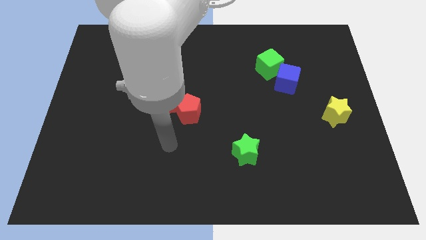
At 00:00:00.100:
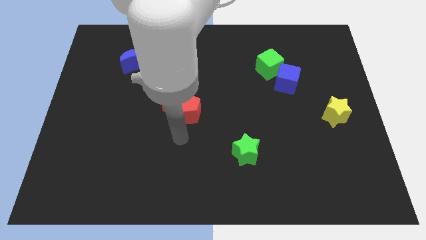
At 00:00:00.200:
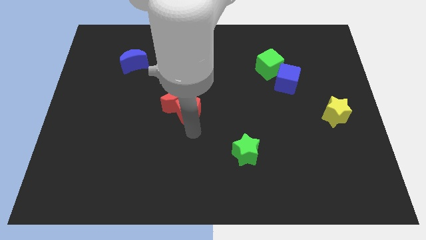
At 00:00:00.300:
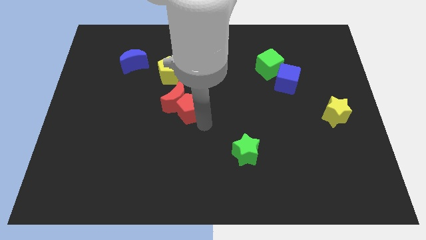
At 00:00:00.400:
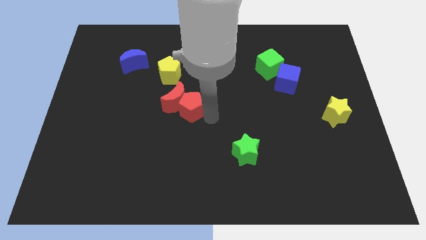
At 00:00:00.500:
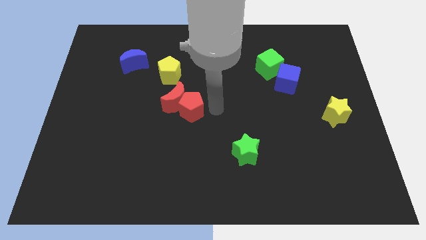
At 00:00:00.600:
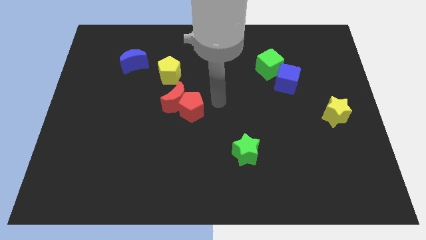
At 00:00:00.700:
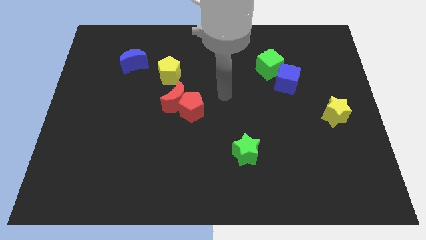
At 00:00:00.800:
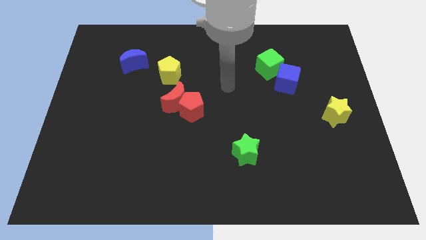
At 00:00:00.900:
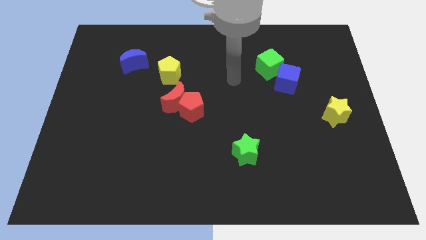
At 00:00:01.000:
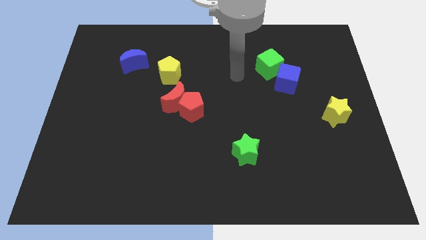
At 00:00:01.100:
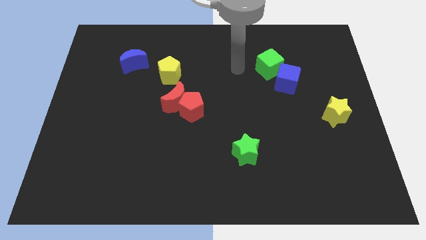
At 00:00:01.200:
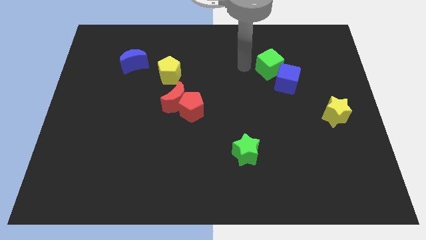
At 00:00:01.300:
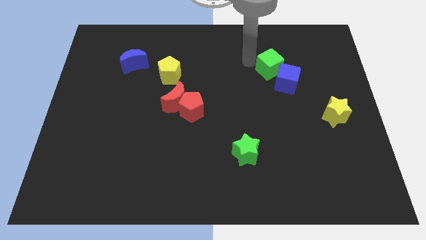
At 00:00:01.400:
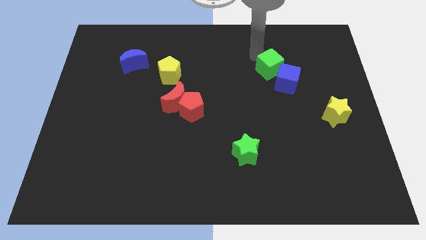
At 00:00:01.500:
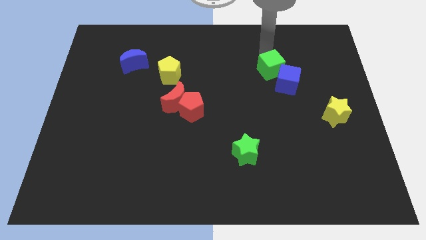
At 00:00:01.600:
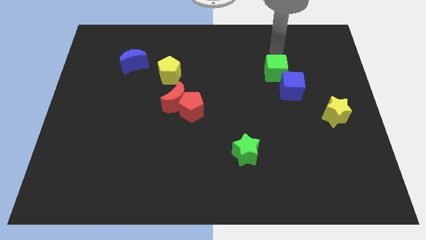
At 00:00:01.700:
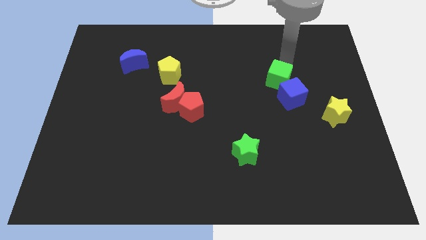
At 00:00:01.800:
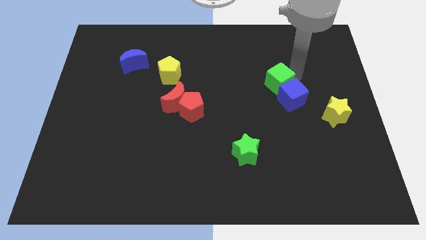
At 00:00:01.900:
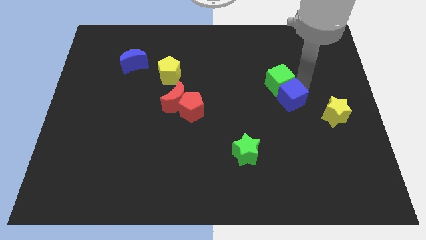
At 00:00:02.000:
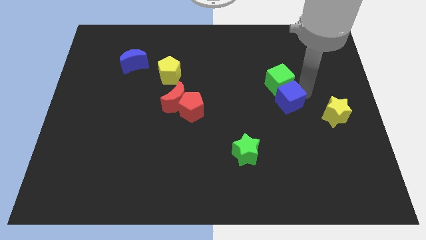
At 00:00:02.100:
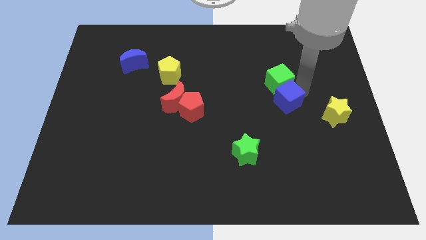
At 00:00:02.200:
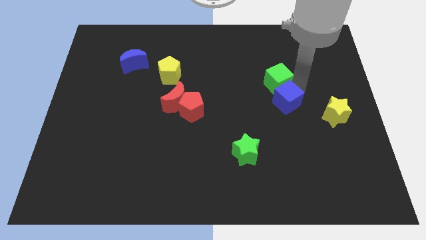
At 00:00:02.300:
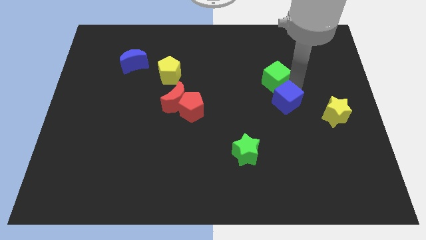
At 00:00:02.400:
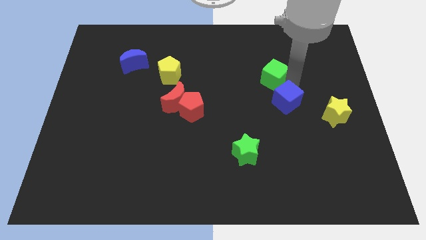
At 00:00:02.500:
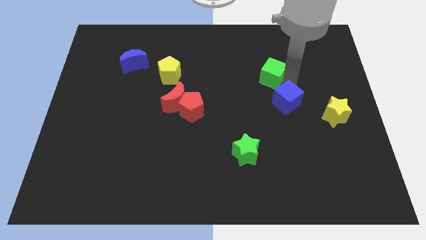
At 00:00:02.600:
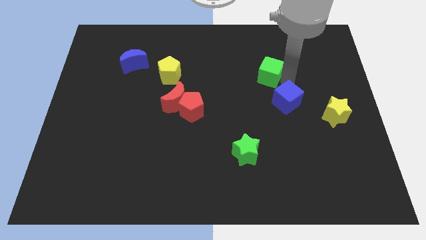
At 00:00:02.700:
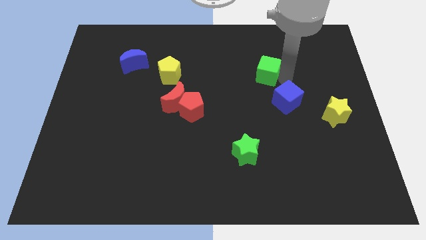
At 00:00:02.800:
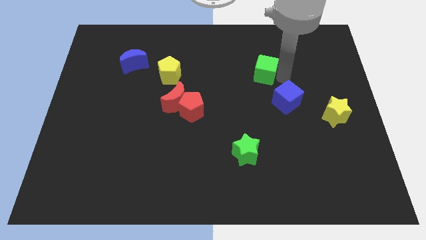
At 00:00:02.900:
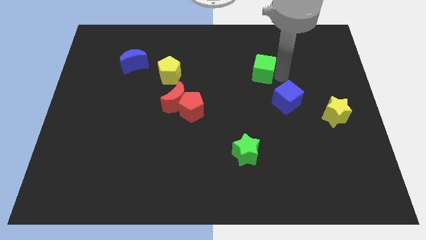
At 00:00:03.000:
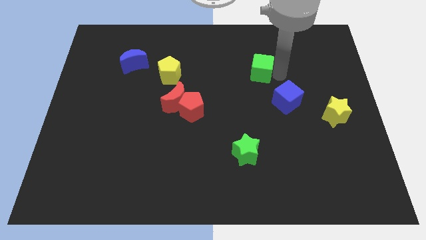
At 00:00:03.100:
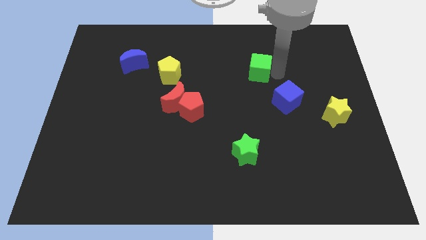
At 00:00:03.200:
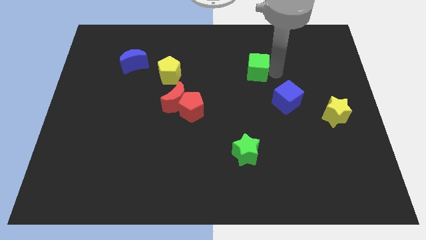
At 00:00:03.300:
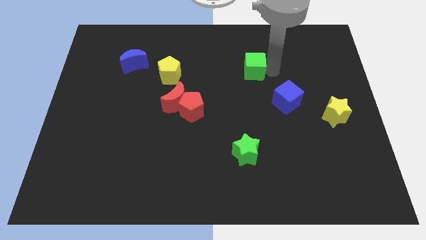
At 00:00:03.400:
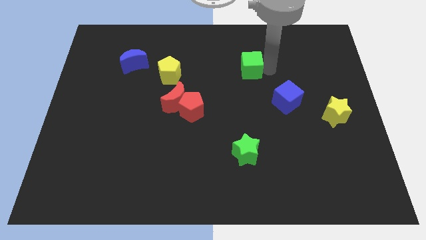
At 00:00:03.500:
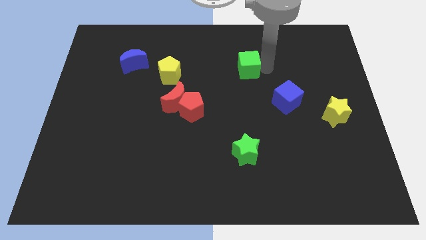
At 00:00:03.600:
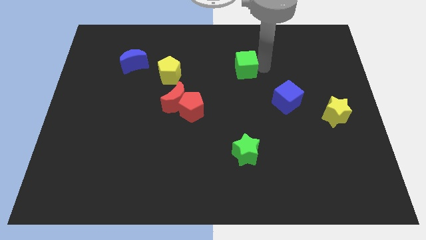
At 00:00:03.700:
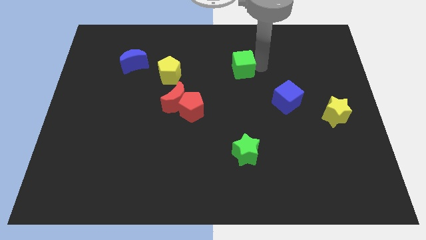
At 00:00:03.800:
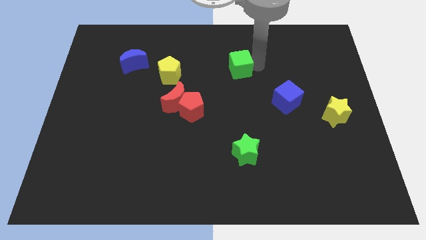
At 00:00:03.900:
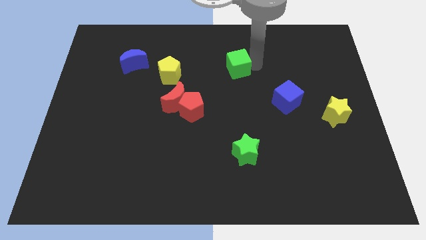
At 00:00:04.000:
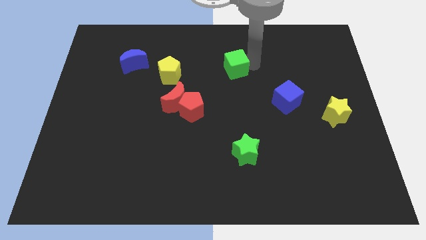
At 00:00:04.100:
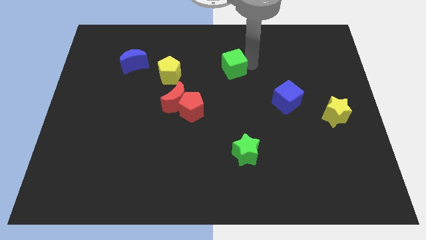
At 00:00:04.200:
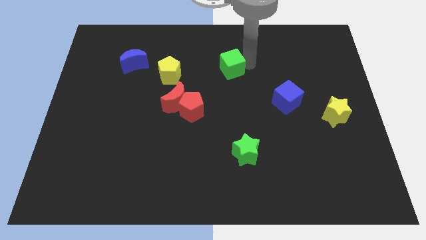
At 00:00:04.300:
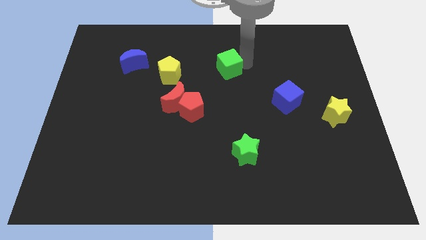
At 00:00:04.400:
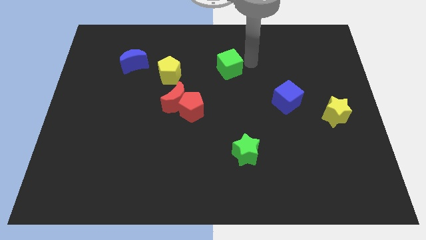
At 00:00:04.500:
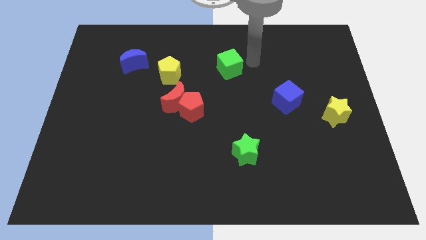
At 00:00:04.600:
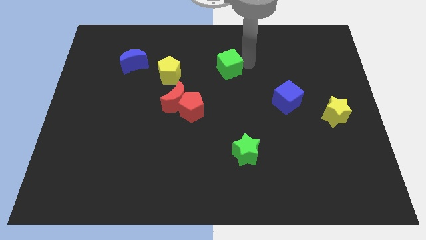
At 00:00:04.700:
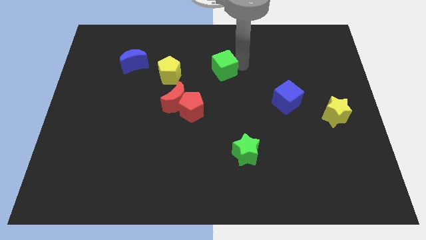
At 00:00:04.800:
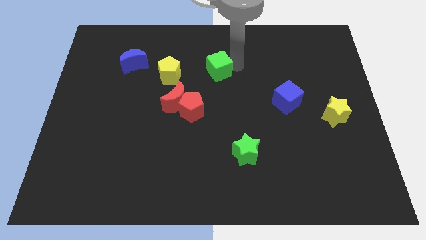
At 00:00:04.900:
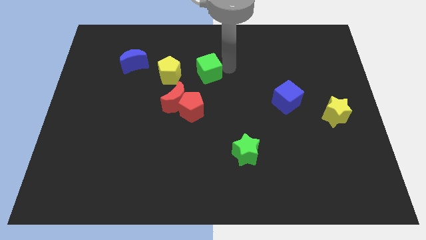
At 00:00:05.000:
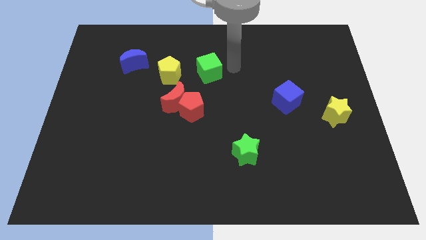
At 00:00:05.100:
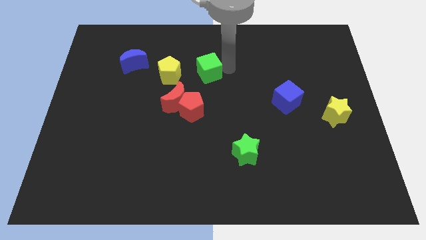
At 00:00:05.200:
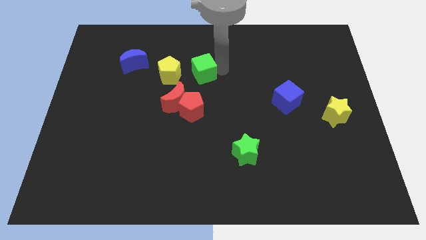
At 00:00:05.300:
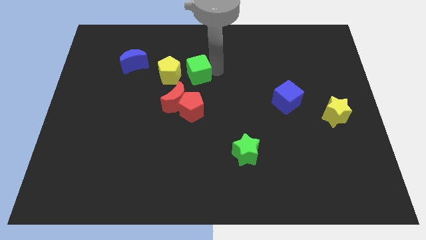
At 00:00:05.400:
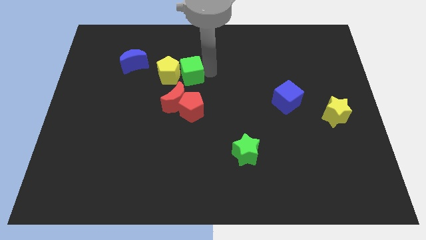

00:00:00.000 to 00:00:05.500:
push the green cube to the yellow pentagon

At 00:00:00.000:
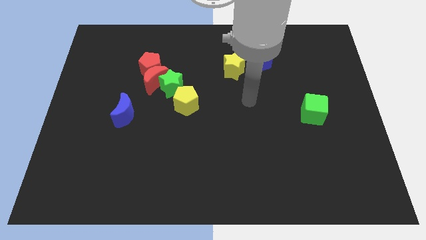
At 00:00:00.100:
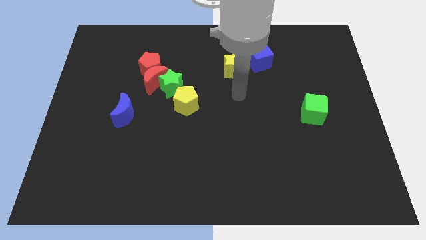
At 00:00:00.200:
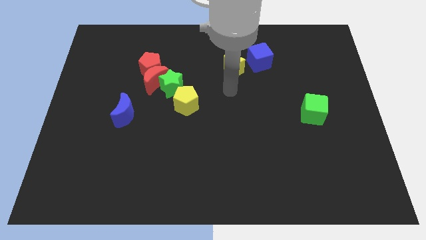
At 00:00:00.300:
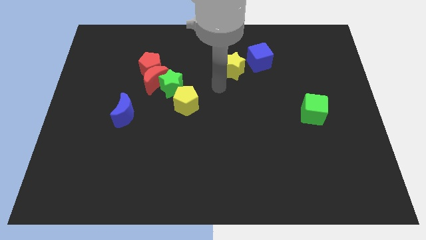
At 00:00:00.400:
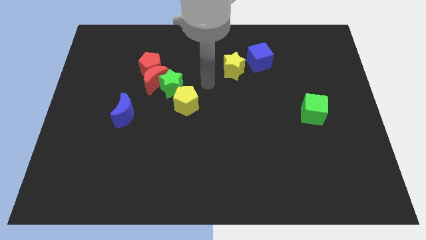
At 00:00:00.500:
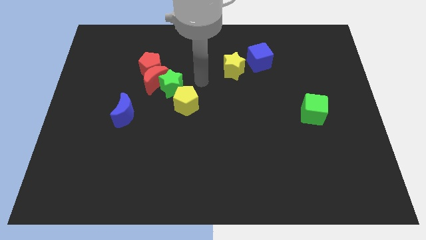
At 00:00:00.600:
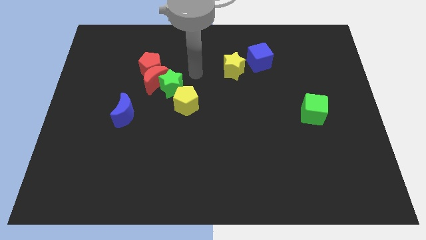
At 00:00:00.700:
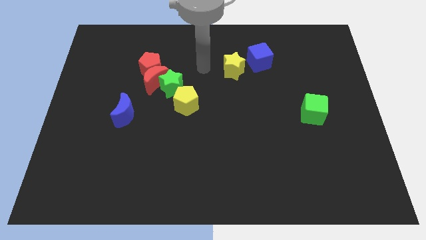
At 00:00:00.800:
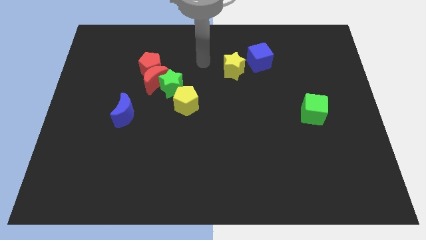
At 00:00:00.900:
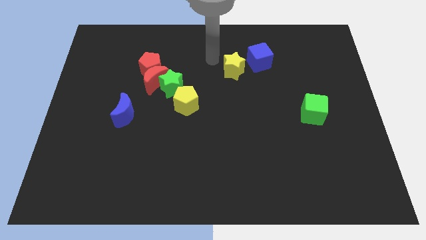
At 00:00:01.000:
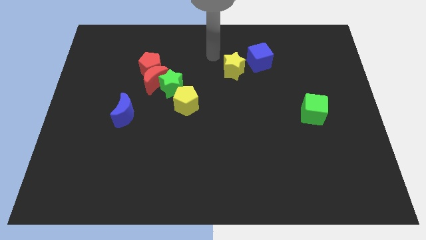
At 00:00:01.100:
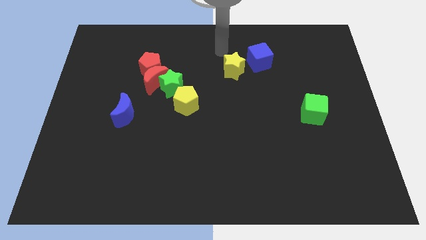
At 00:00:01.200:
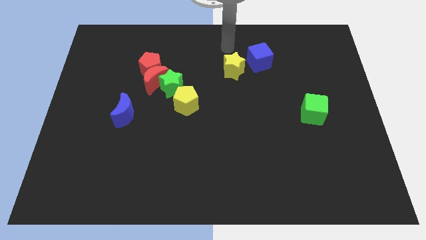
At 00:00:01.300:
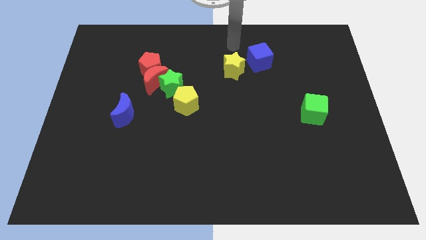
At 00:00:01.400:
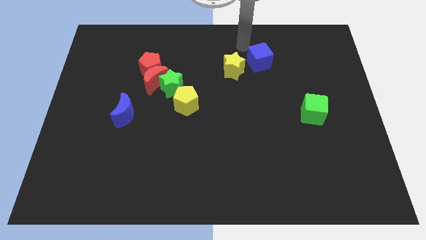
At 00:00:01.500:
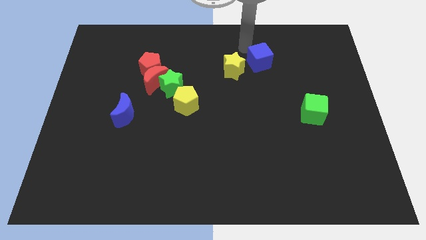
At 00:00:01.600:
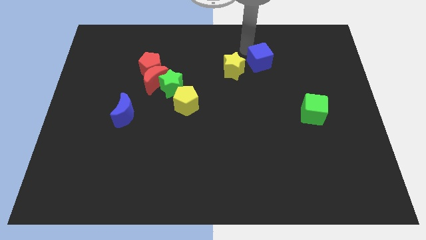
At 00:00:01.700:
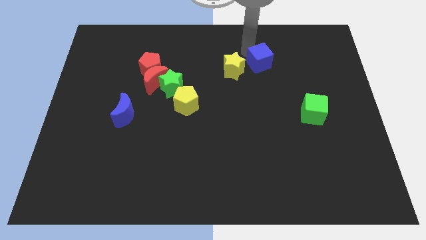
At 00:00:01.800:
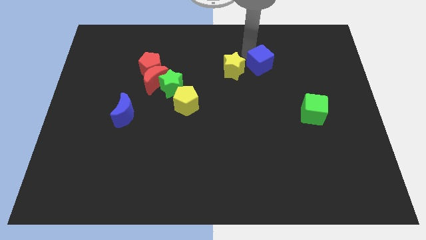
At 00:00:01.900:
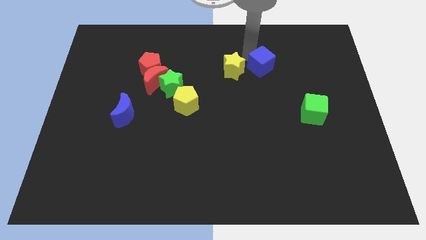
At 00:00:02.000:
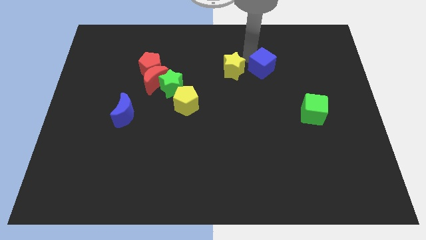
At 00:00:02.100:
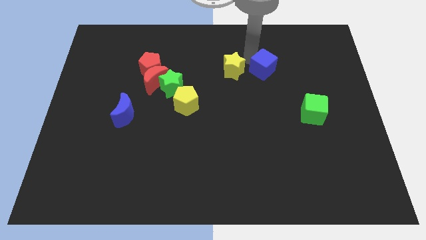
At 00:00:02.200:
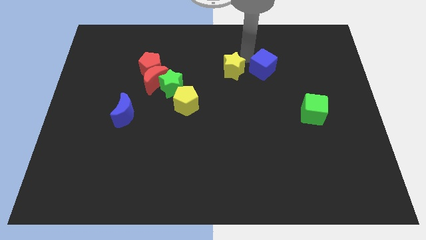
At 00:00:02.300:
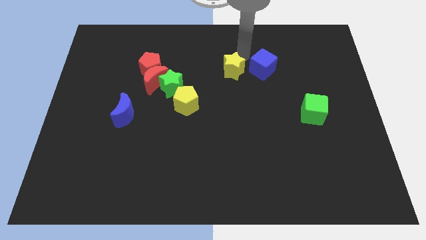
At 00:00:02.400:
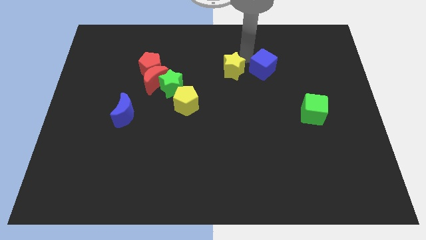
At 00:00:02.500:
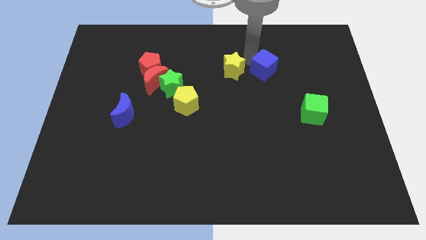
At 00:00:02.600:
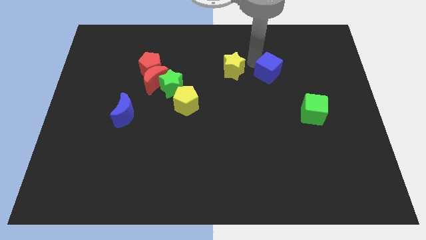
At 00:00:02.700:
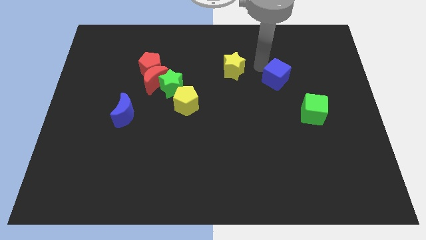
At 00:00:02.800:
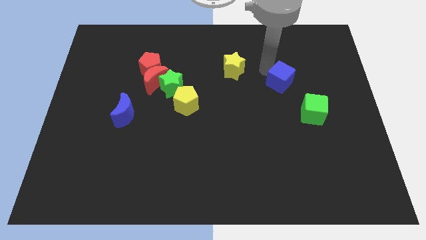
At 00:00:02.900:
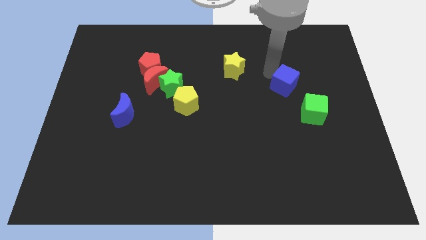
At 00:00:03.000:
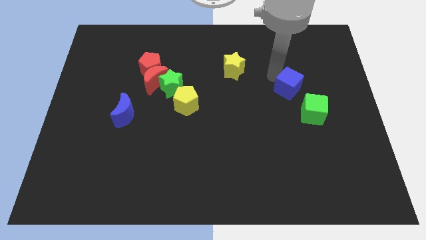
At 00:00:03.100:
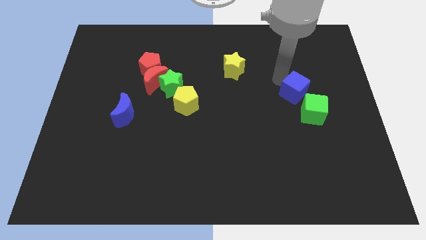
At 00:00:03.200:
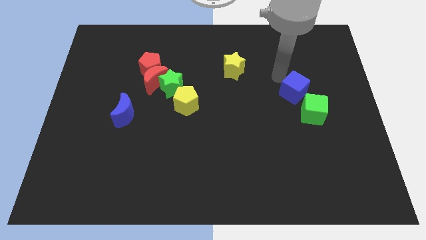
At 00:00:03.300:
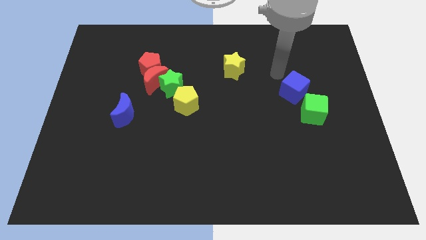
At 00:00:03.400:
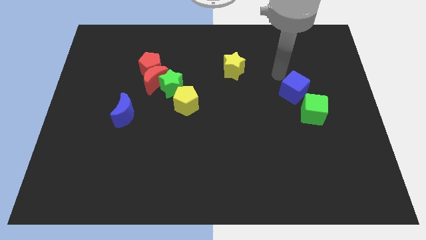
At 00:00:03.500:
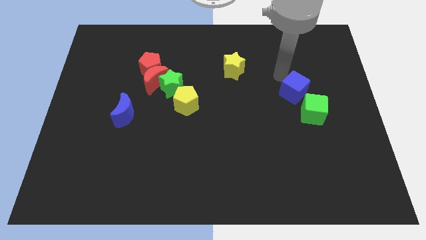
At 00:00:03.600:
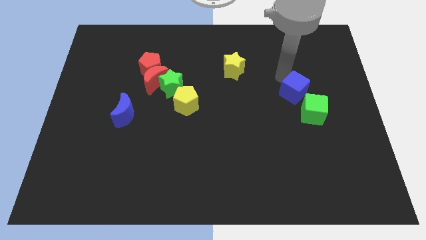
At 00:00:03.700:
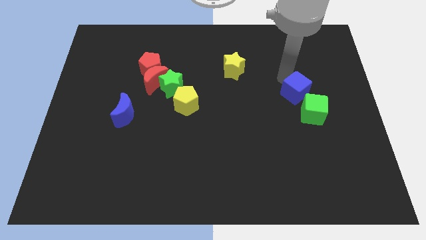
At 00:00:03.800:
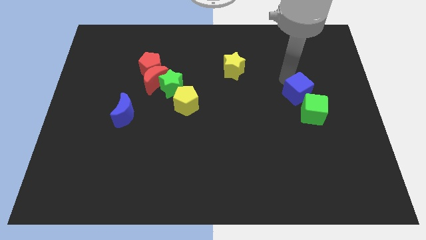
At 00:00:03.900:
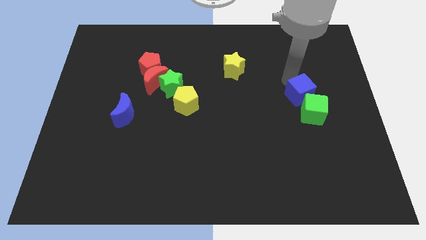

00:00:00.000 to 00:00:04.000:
slide the blue cube towards the green cube
